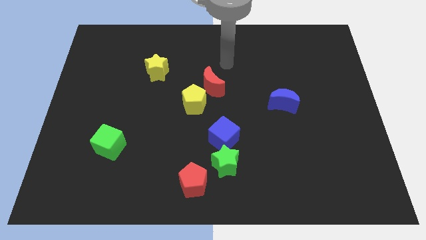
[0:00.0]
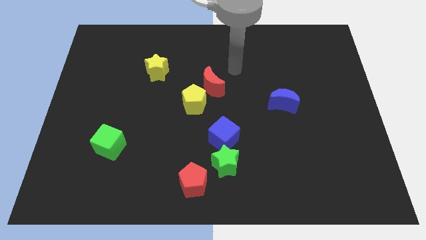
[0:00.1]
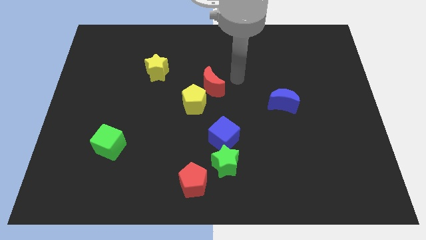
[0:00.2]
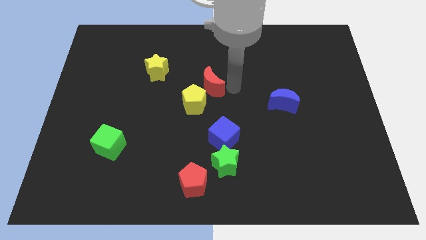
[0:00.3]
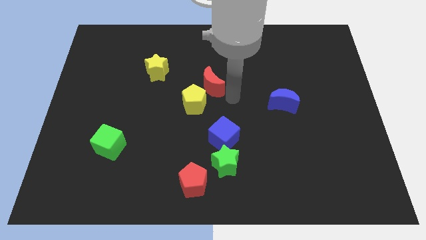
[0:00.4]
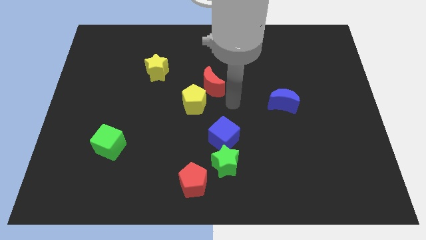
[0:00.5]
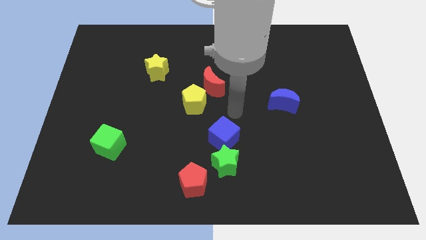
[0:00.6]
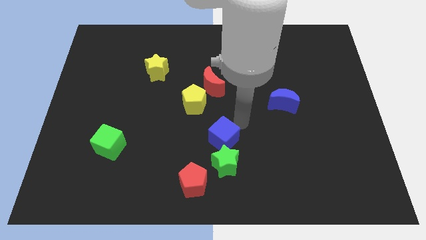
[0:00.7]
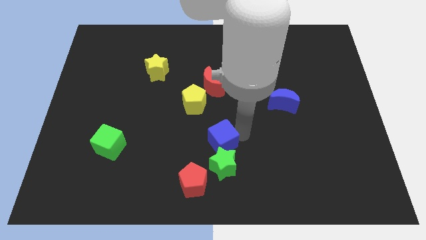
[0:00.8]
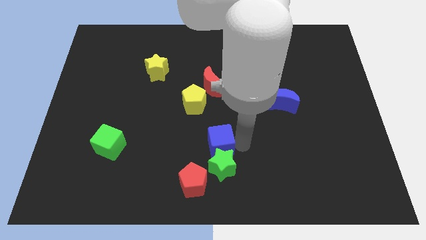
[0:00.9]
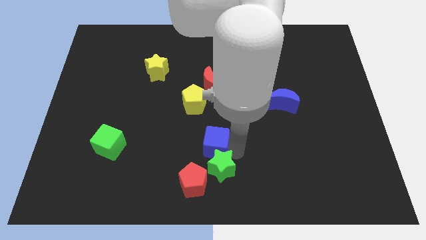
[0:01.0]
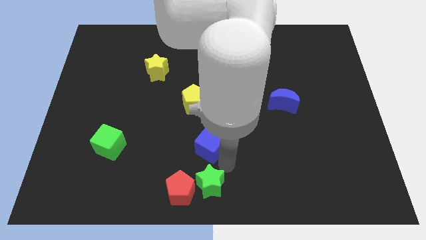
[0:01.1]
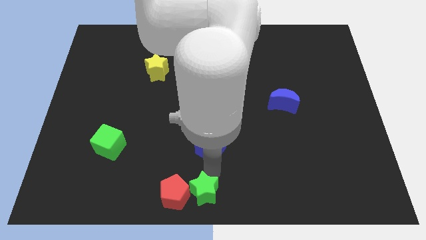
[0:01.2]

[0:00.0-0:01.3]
separate the blue cube from the green star

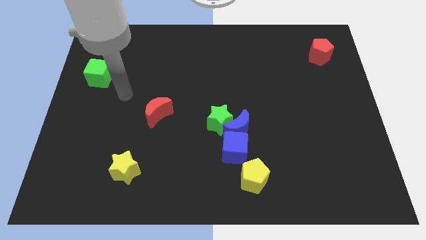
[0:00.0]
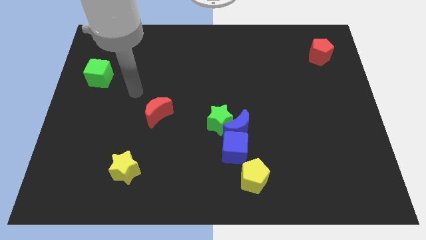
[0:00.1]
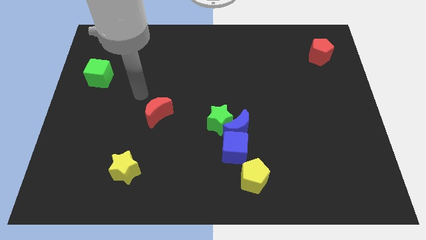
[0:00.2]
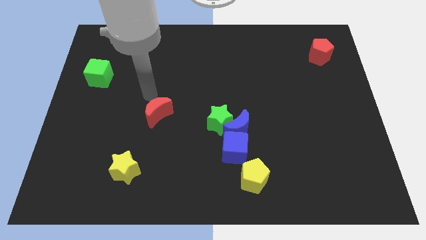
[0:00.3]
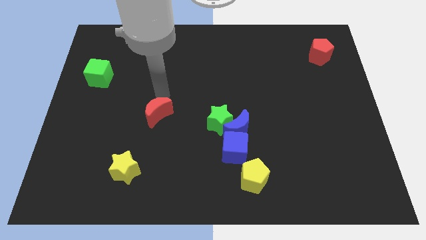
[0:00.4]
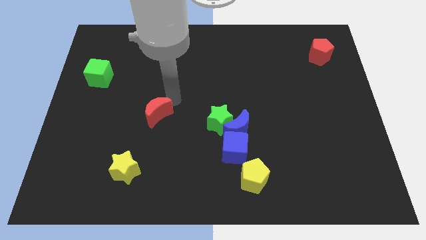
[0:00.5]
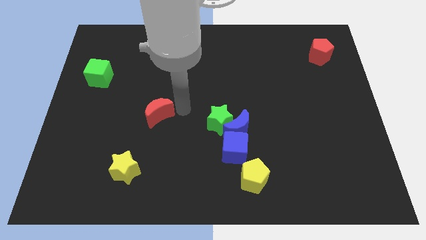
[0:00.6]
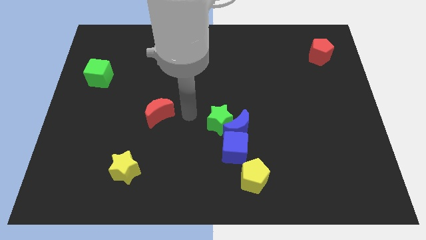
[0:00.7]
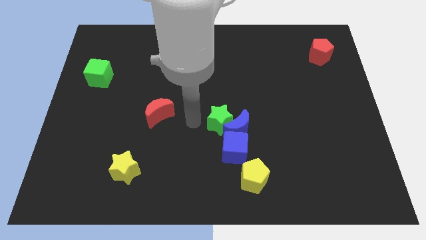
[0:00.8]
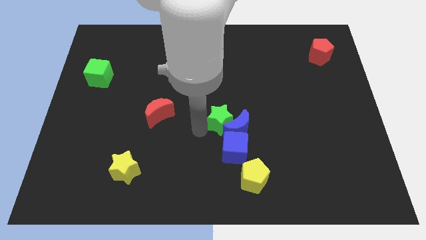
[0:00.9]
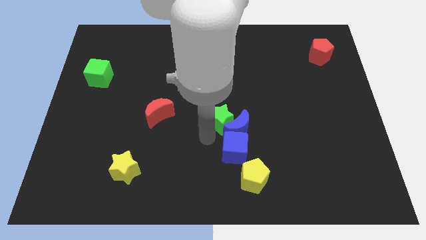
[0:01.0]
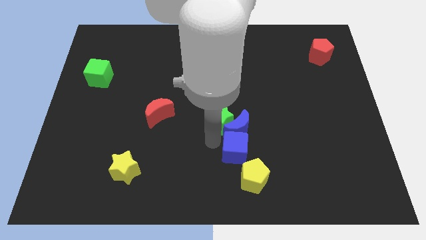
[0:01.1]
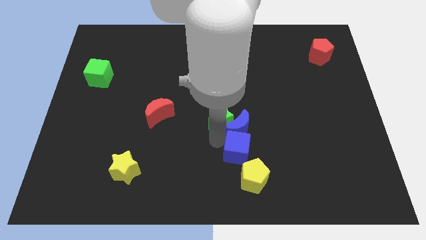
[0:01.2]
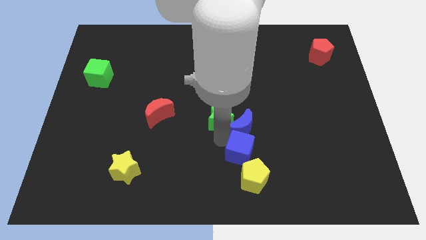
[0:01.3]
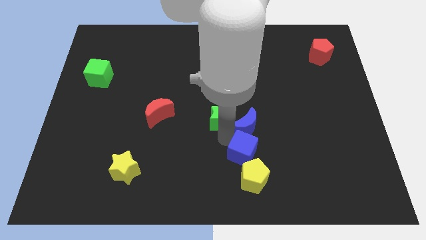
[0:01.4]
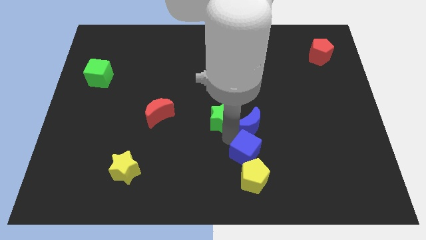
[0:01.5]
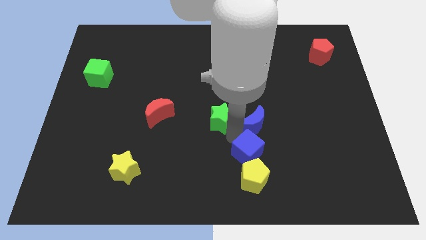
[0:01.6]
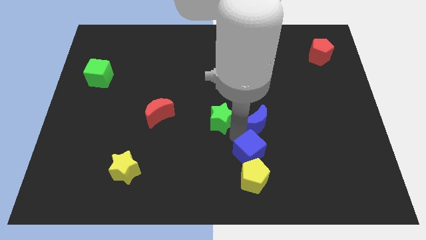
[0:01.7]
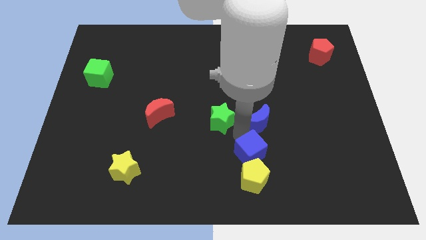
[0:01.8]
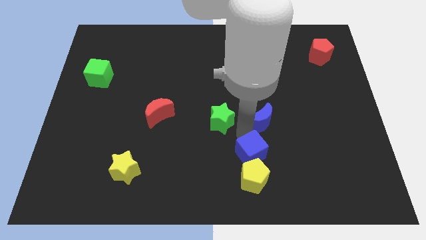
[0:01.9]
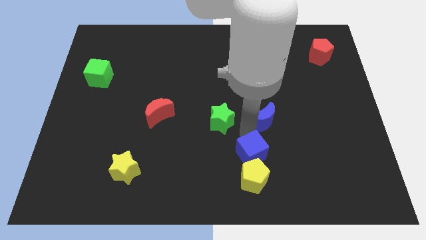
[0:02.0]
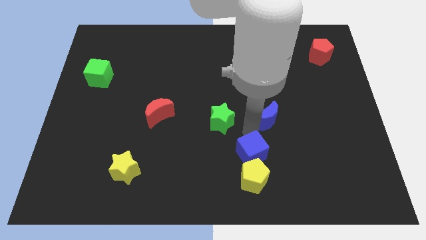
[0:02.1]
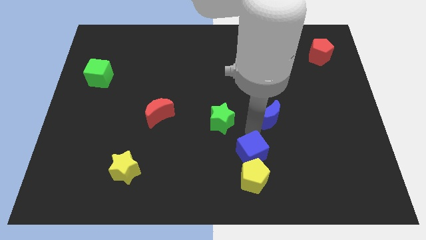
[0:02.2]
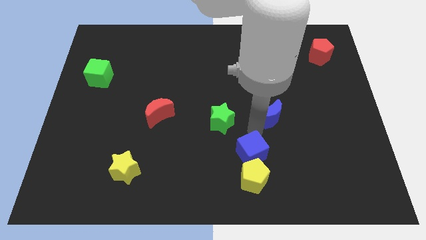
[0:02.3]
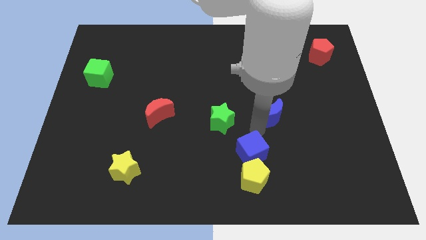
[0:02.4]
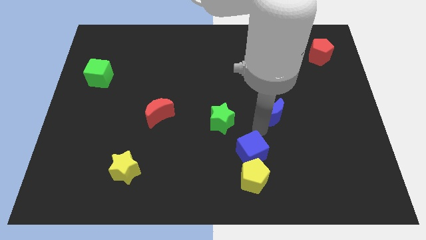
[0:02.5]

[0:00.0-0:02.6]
separate the blue moon from the green star and blue cube

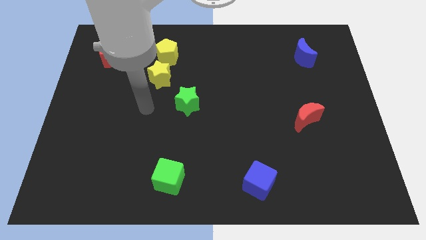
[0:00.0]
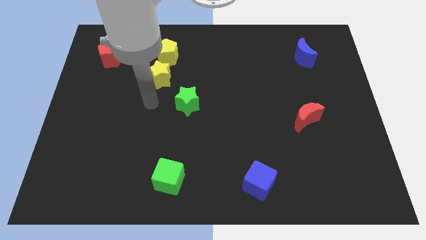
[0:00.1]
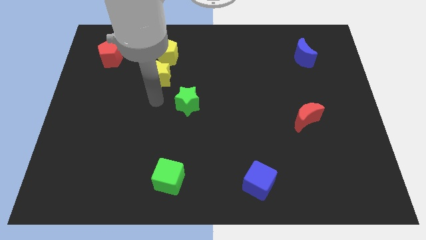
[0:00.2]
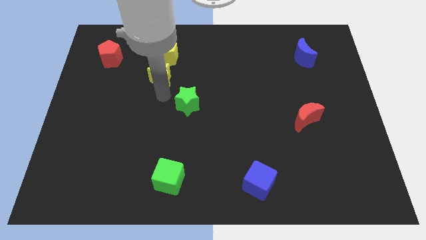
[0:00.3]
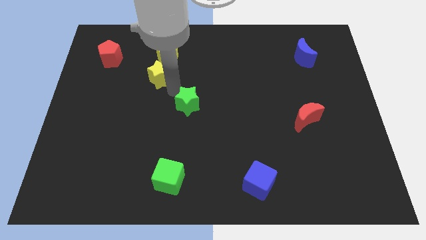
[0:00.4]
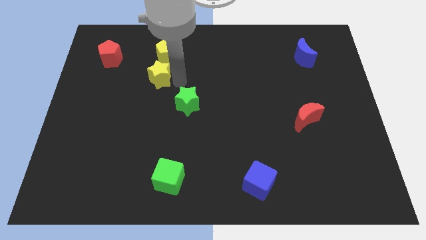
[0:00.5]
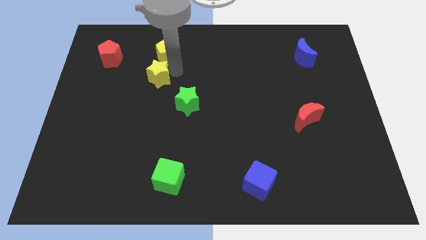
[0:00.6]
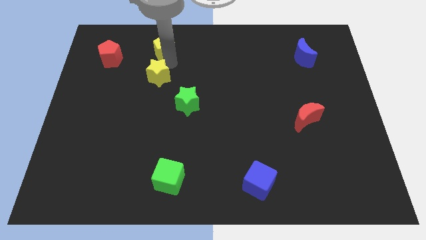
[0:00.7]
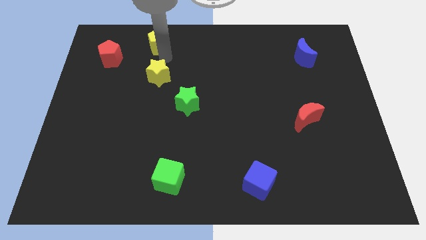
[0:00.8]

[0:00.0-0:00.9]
pull the yellow star apart from the yellow pentagon

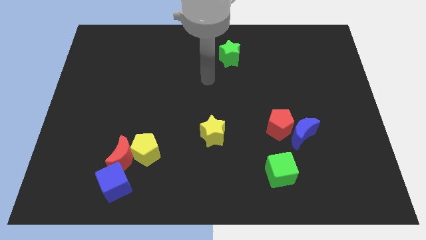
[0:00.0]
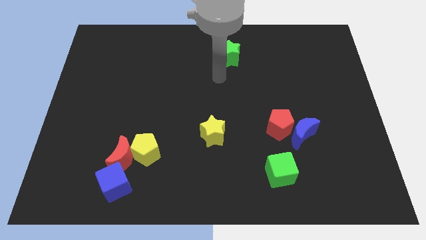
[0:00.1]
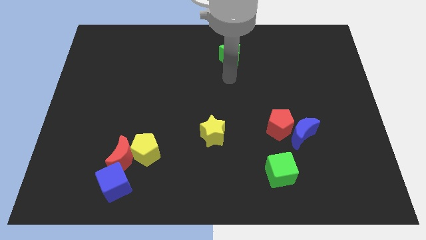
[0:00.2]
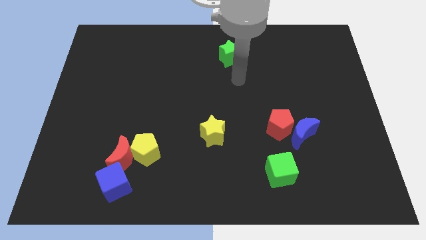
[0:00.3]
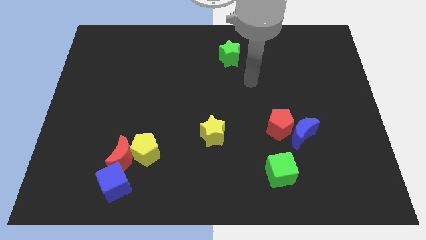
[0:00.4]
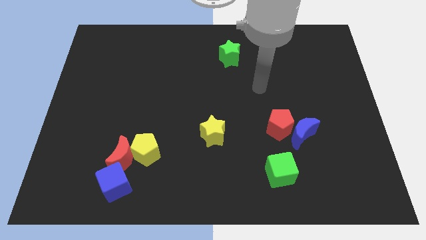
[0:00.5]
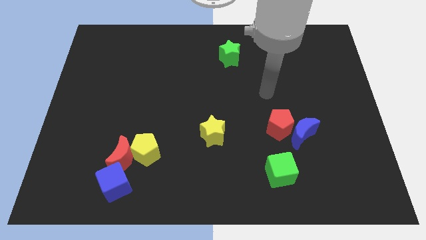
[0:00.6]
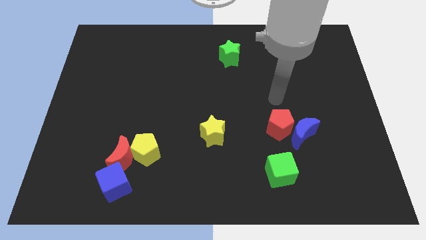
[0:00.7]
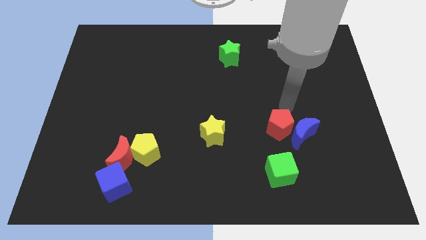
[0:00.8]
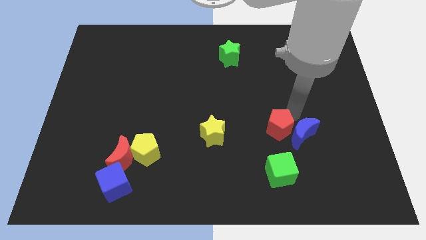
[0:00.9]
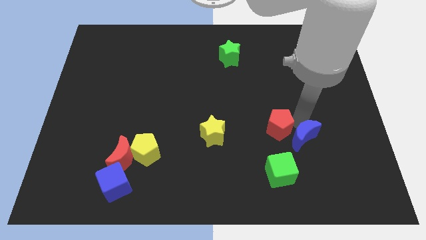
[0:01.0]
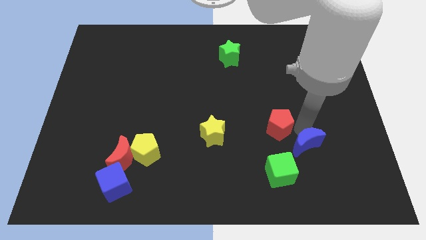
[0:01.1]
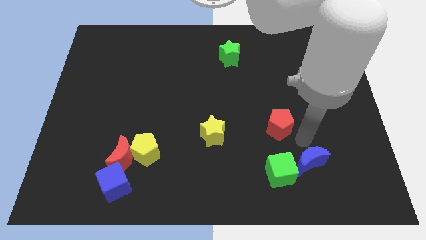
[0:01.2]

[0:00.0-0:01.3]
separate the red pentagon from the blue moon

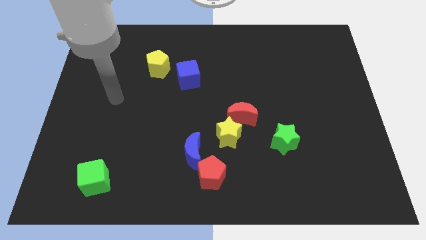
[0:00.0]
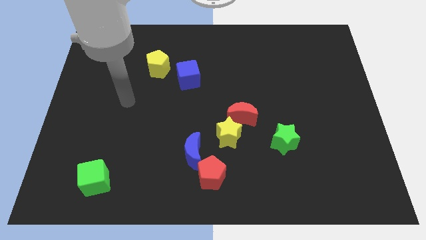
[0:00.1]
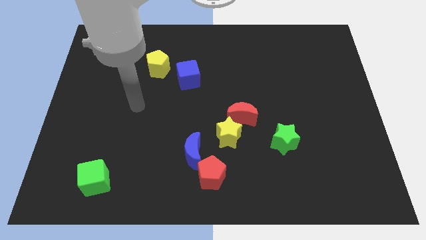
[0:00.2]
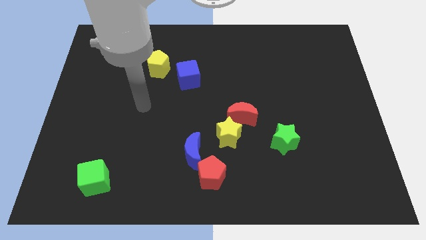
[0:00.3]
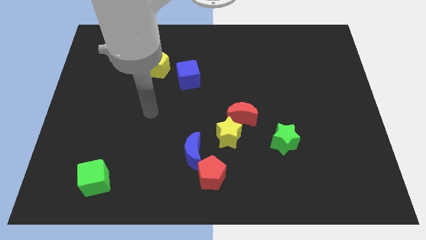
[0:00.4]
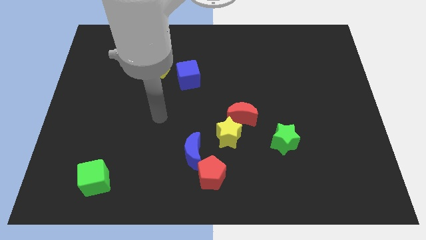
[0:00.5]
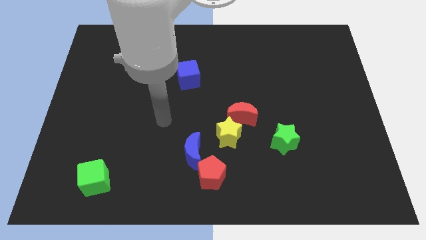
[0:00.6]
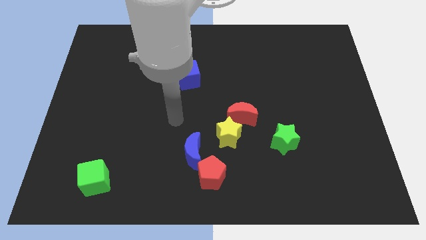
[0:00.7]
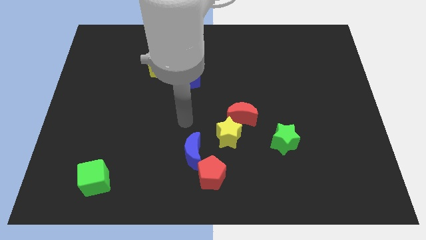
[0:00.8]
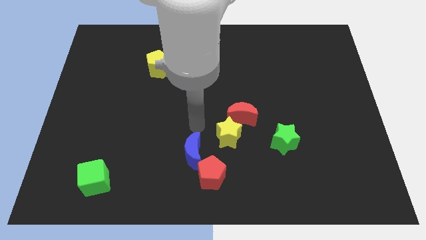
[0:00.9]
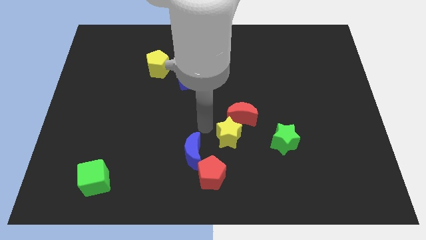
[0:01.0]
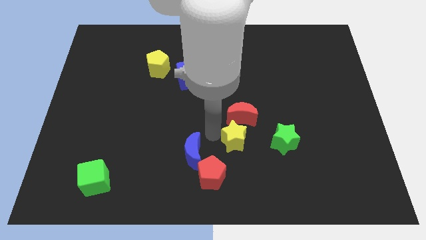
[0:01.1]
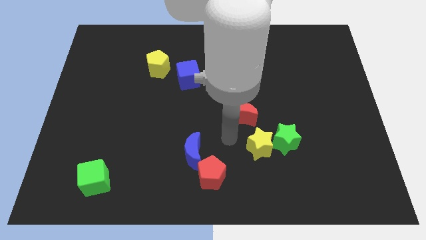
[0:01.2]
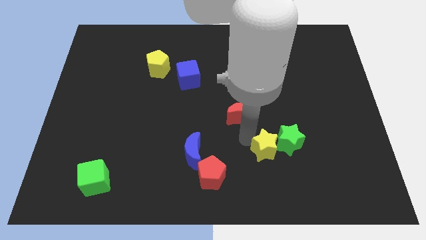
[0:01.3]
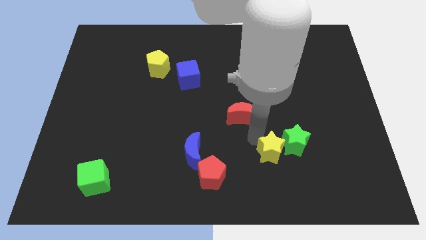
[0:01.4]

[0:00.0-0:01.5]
separate the red moon from the yellow star

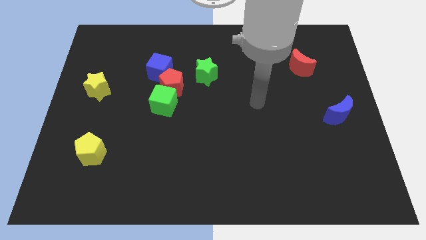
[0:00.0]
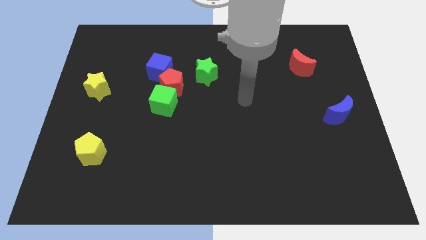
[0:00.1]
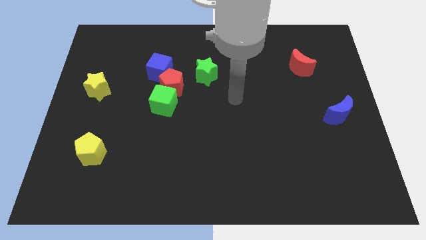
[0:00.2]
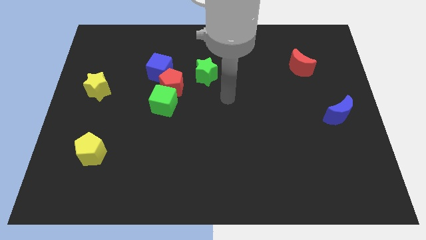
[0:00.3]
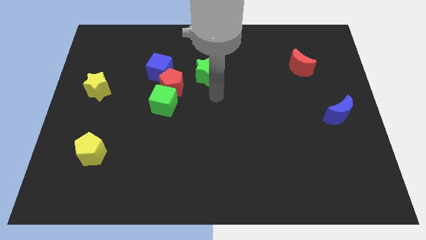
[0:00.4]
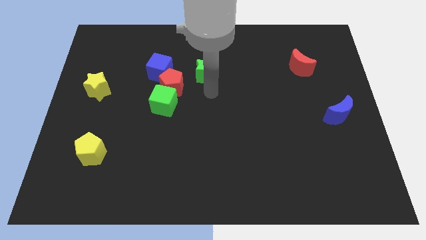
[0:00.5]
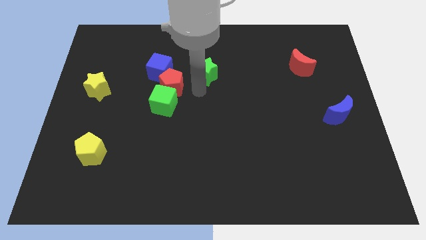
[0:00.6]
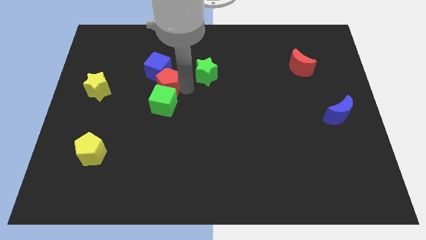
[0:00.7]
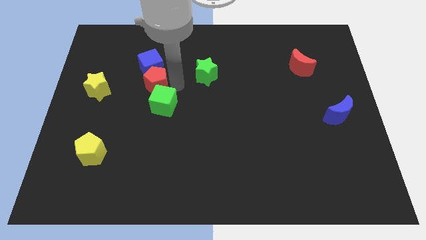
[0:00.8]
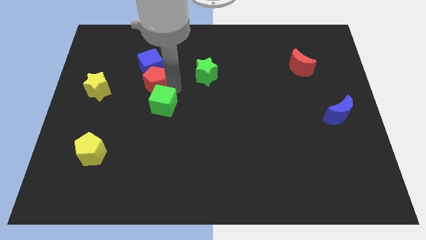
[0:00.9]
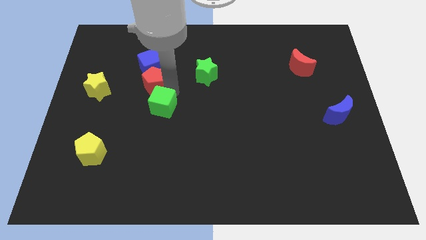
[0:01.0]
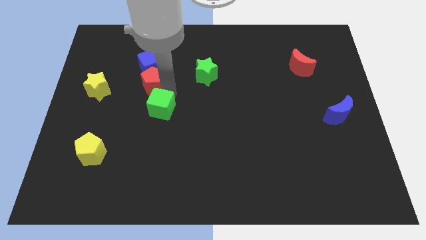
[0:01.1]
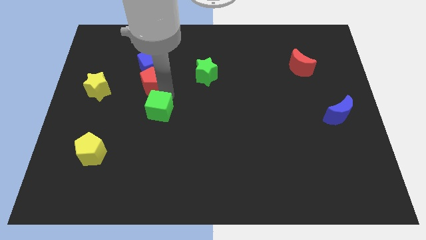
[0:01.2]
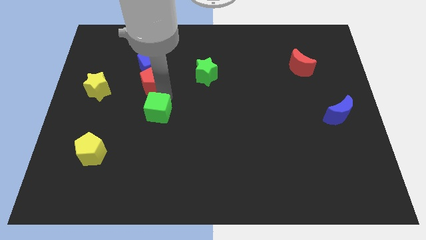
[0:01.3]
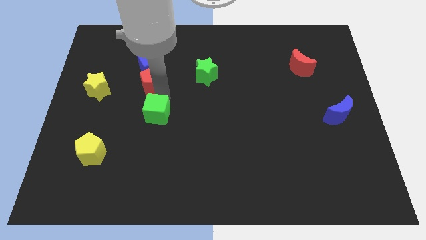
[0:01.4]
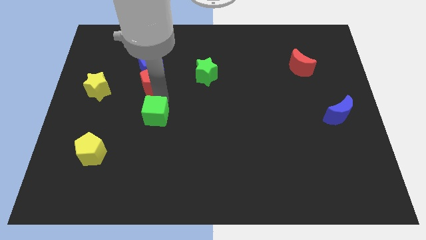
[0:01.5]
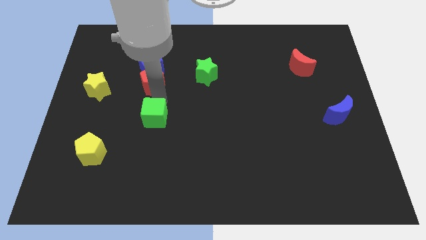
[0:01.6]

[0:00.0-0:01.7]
move the green cube away from the red pentagon
